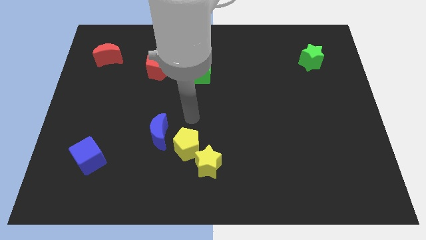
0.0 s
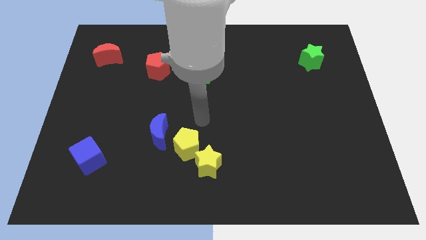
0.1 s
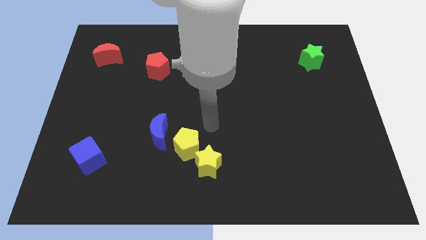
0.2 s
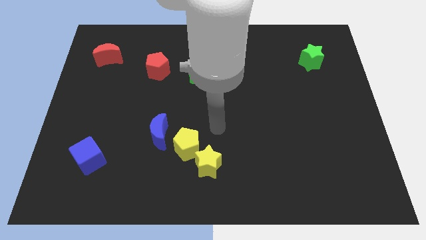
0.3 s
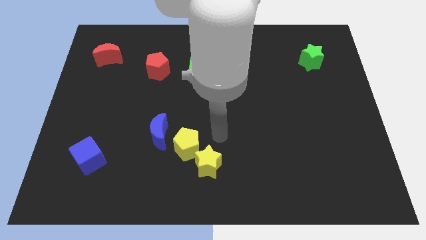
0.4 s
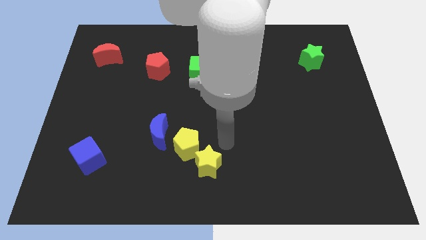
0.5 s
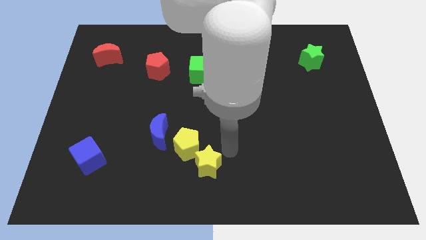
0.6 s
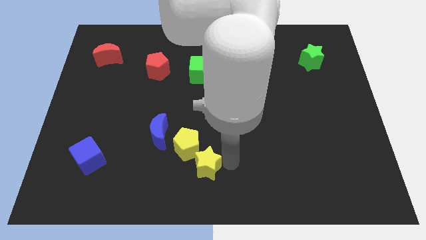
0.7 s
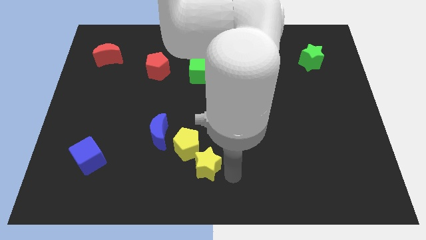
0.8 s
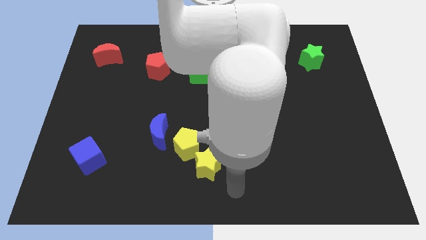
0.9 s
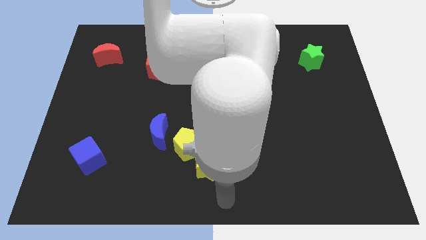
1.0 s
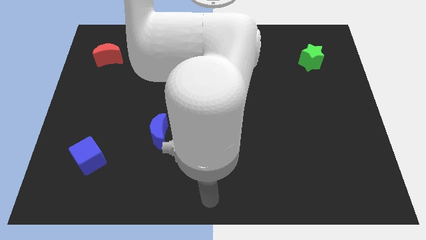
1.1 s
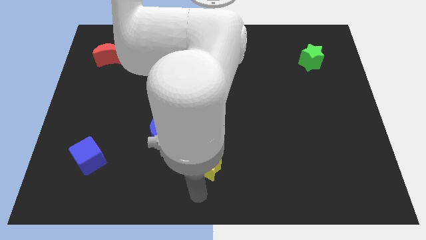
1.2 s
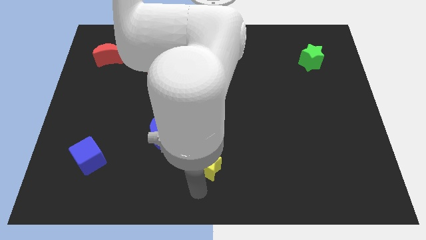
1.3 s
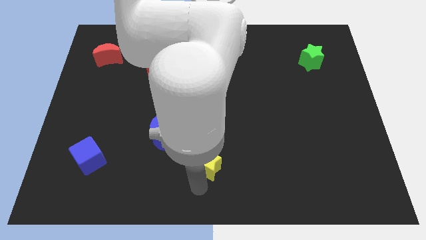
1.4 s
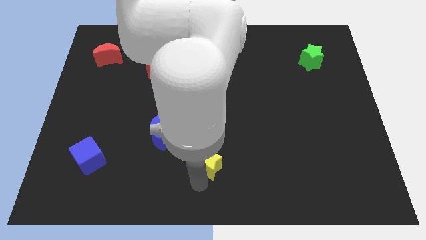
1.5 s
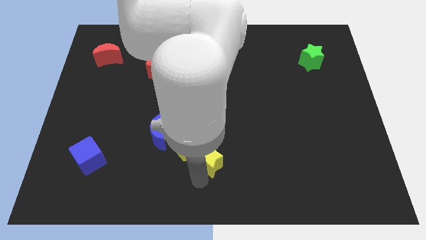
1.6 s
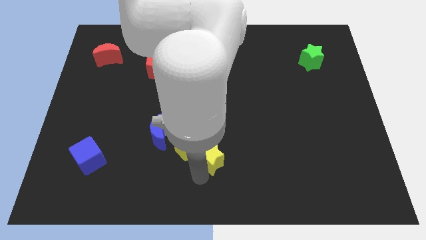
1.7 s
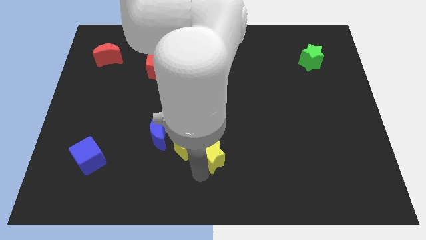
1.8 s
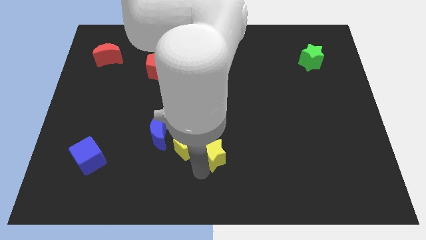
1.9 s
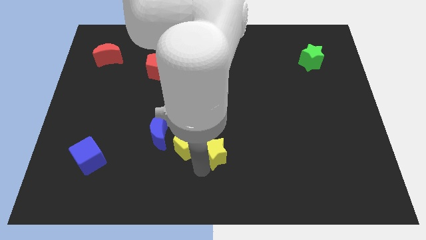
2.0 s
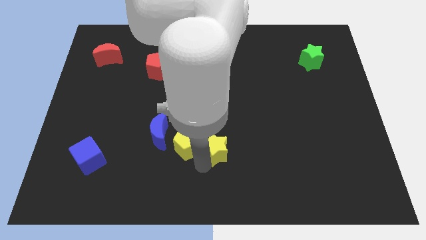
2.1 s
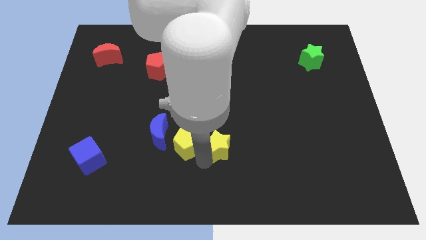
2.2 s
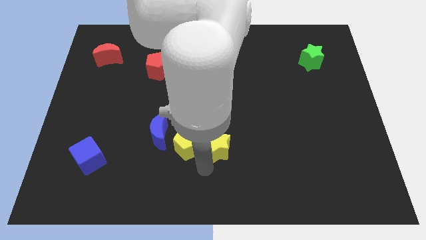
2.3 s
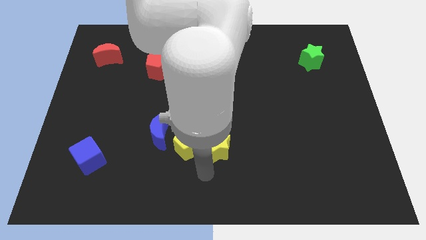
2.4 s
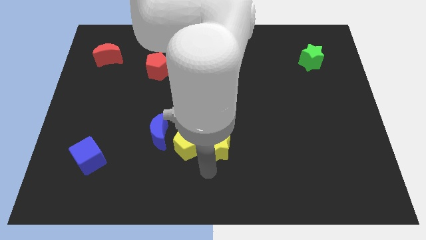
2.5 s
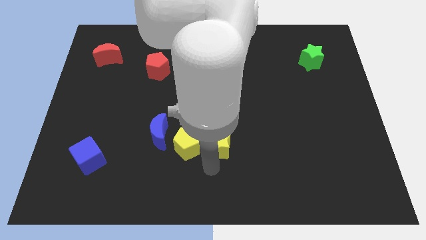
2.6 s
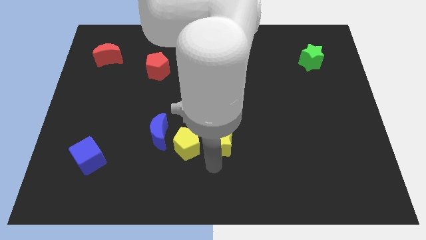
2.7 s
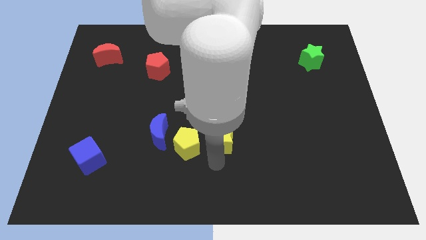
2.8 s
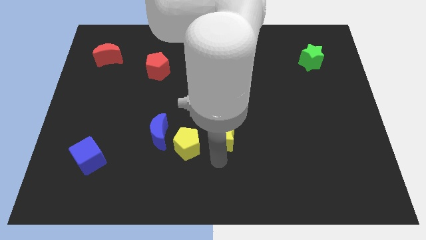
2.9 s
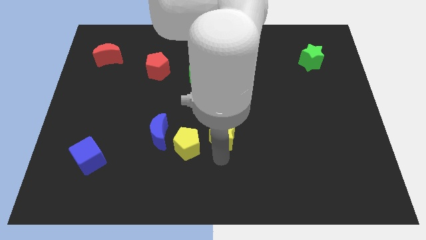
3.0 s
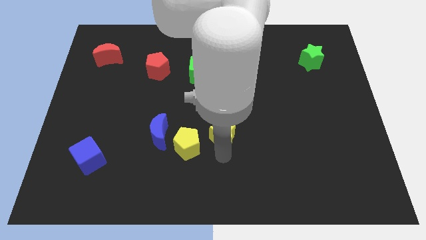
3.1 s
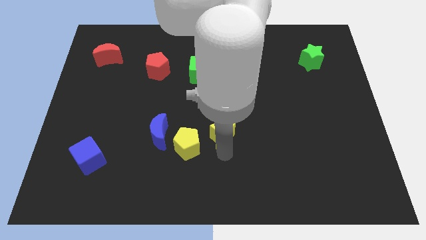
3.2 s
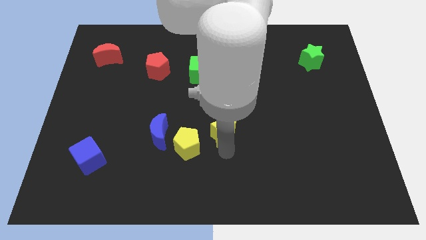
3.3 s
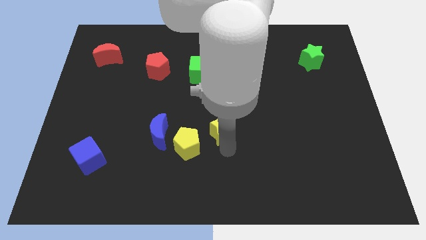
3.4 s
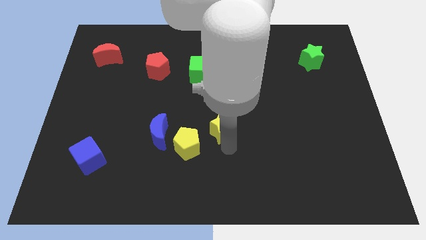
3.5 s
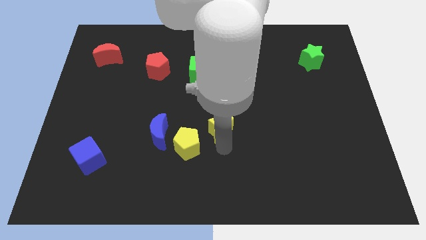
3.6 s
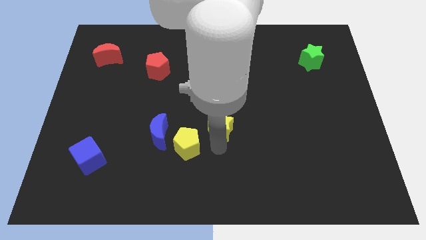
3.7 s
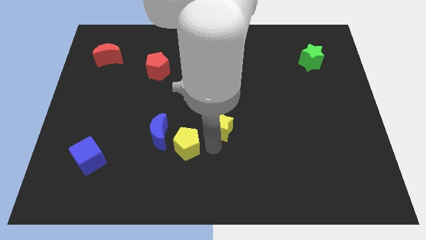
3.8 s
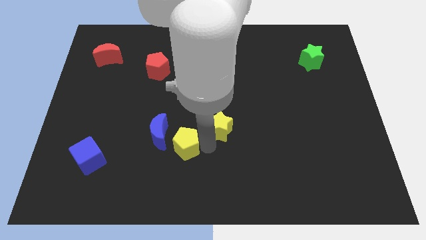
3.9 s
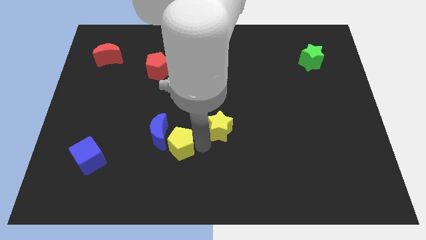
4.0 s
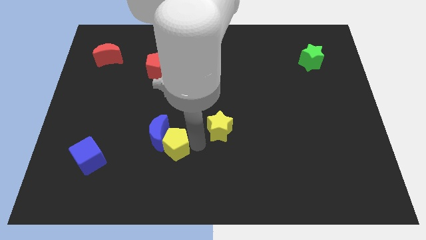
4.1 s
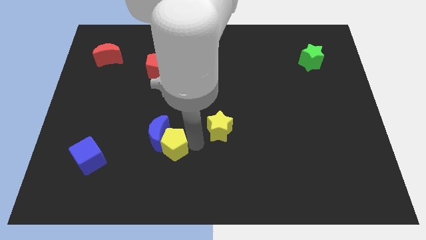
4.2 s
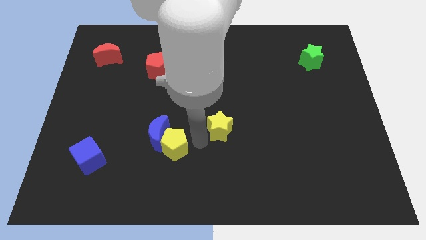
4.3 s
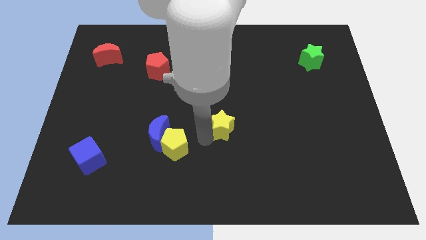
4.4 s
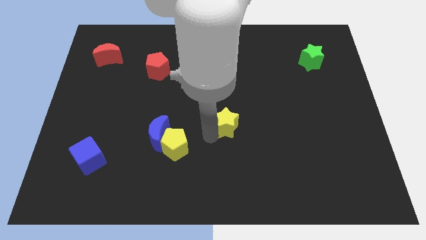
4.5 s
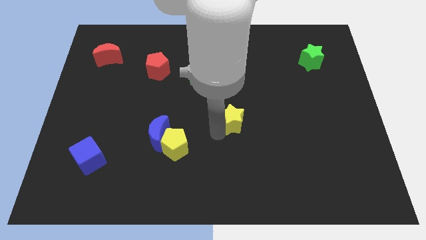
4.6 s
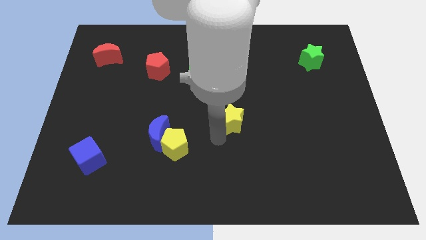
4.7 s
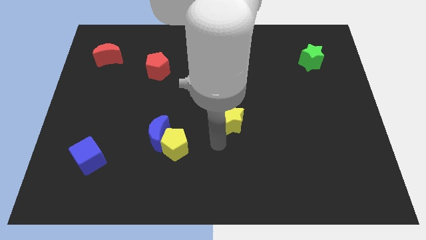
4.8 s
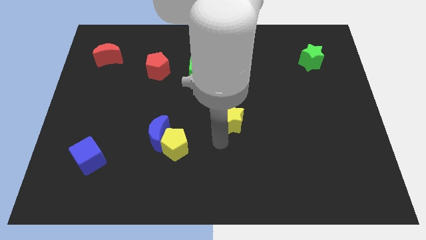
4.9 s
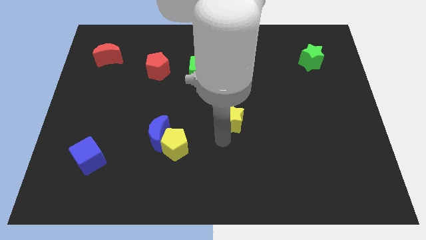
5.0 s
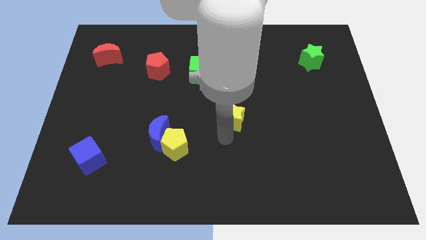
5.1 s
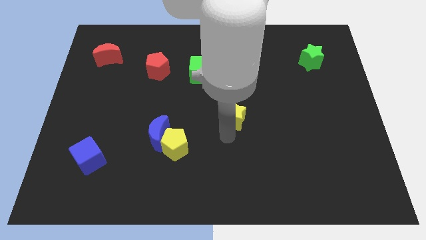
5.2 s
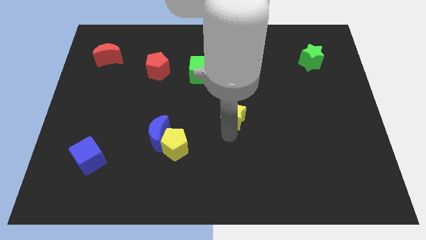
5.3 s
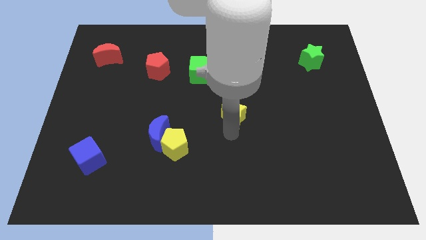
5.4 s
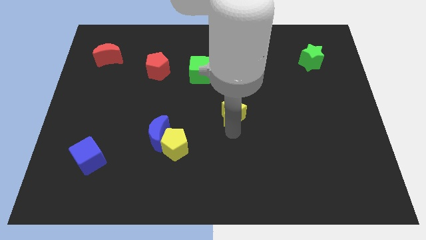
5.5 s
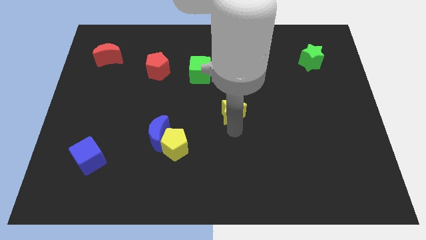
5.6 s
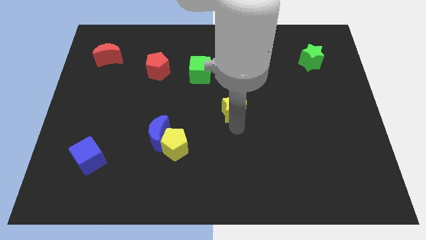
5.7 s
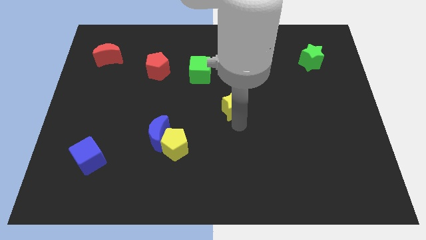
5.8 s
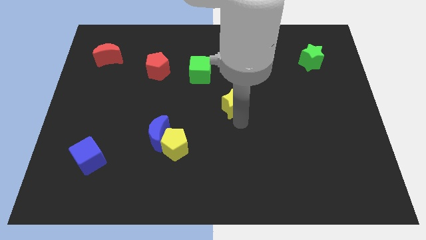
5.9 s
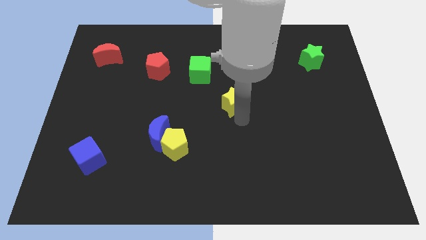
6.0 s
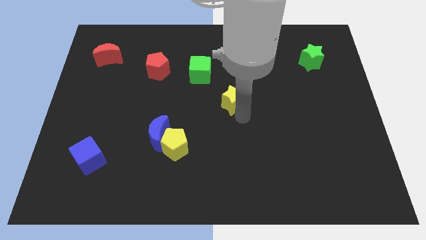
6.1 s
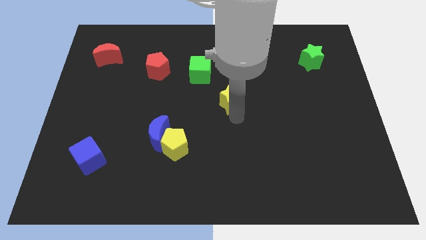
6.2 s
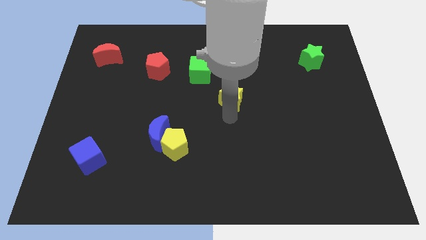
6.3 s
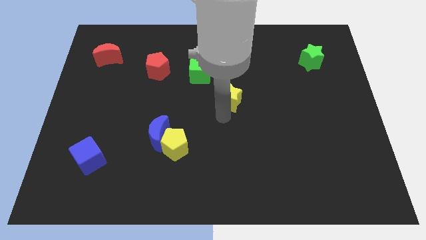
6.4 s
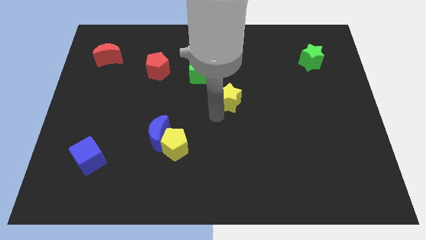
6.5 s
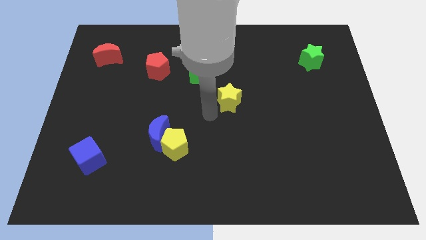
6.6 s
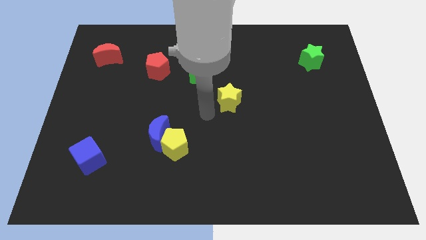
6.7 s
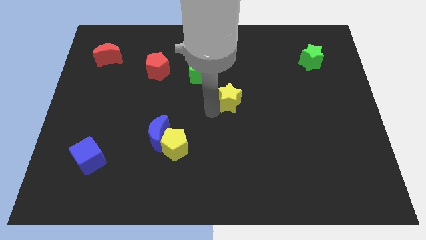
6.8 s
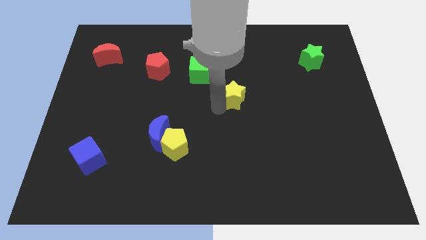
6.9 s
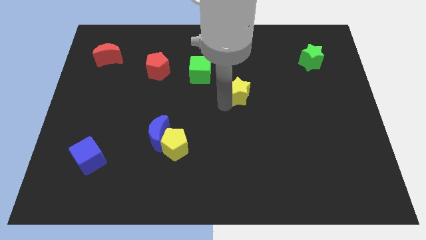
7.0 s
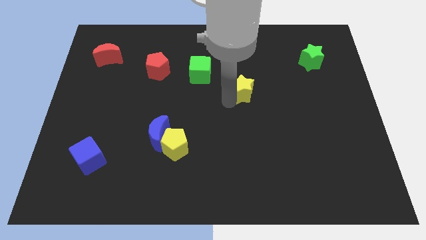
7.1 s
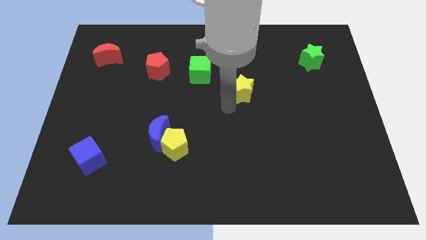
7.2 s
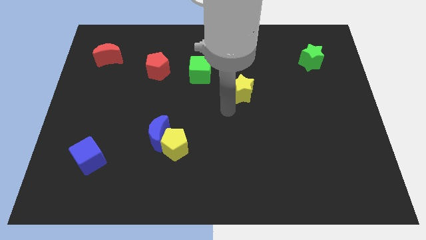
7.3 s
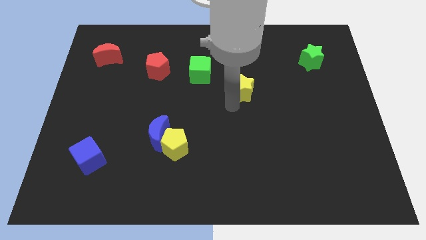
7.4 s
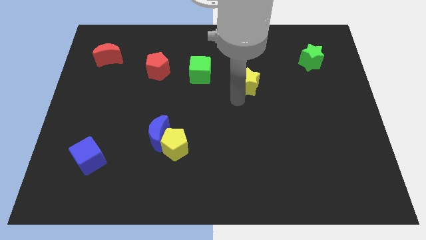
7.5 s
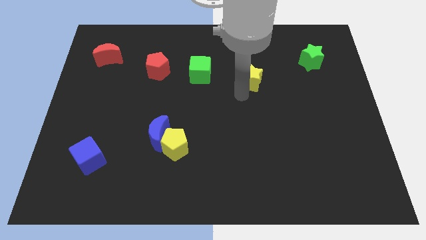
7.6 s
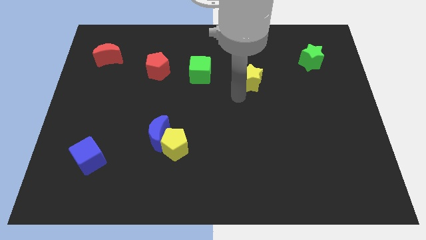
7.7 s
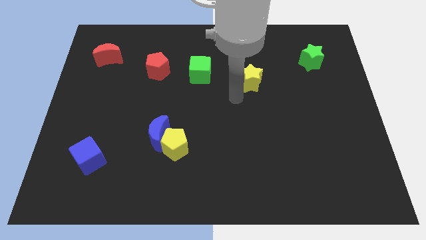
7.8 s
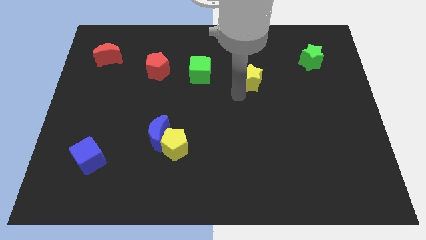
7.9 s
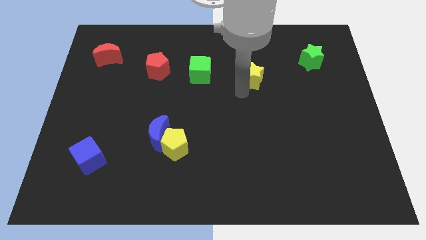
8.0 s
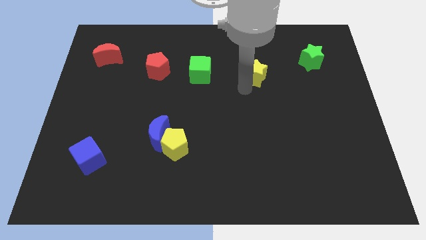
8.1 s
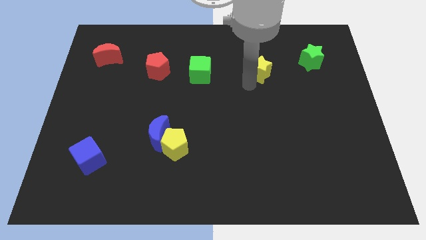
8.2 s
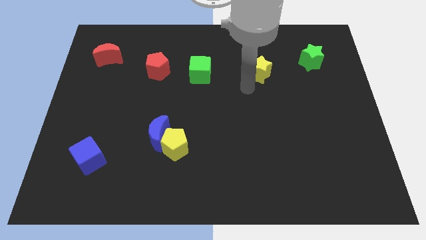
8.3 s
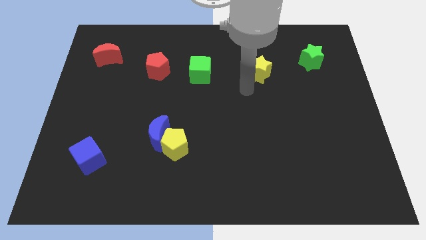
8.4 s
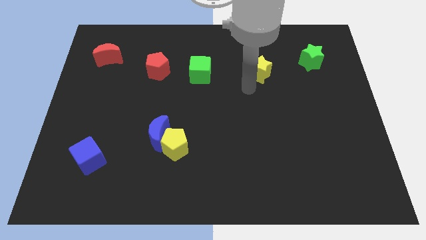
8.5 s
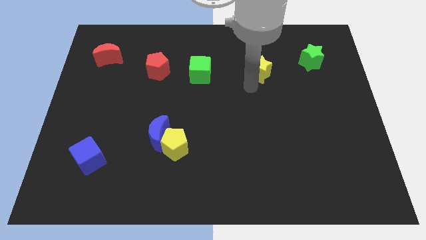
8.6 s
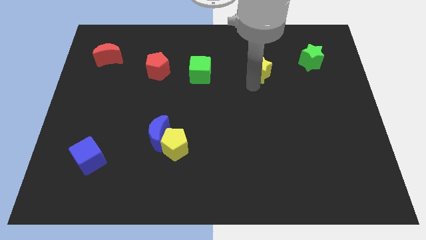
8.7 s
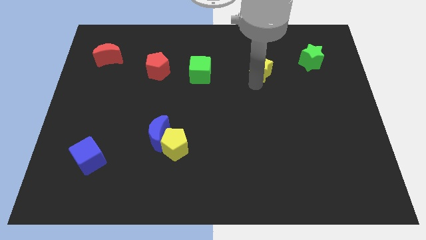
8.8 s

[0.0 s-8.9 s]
move the yellow star to the left of the green star
